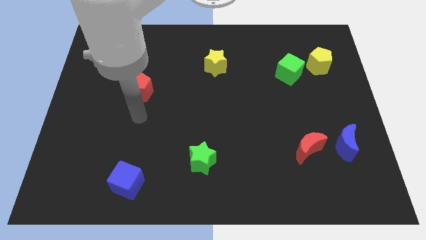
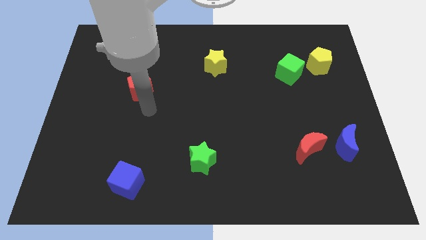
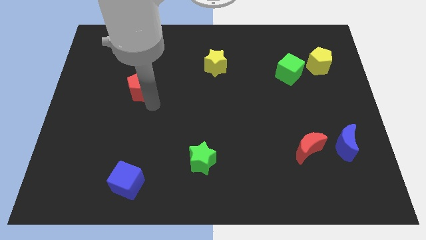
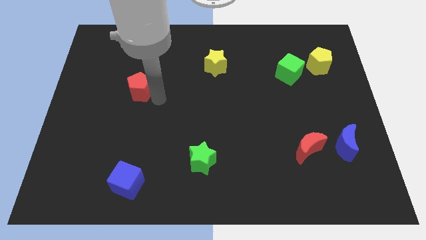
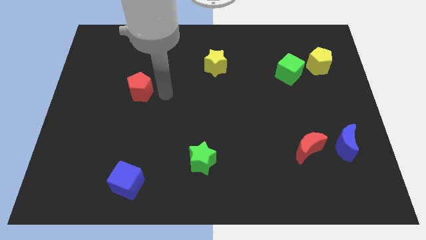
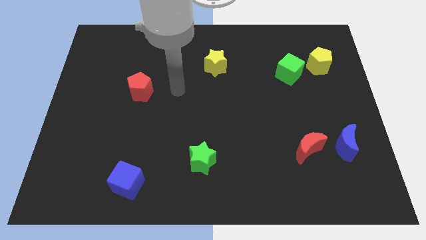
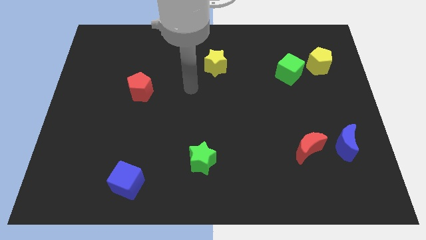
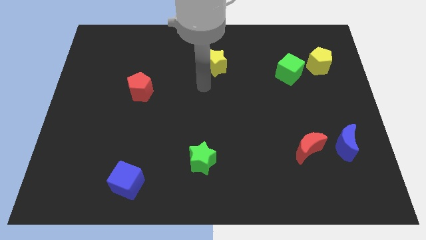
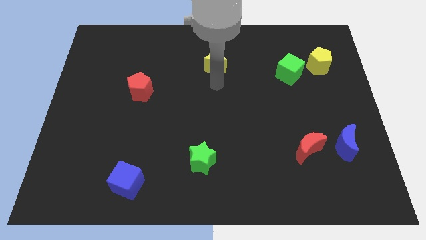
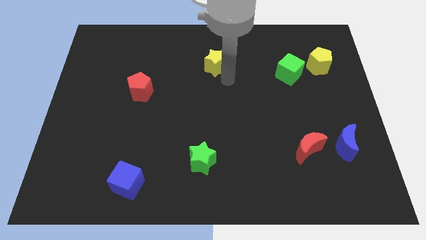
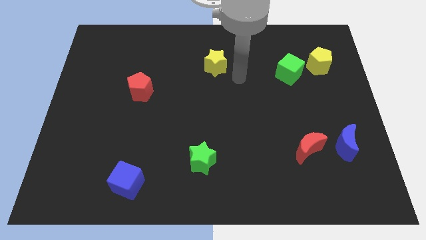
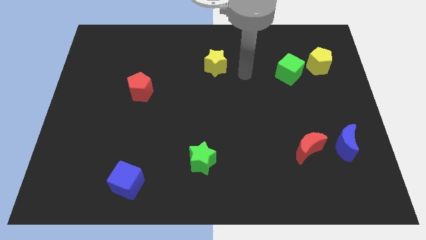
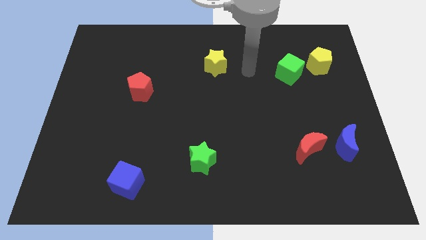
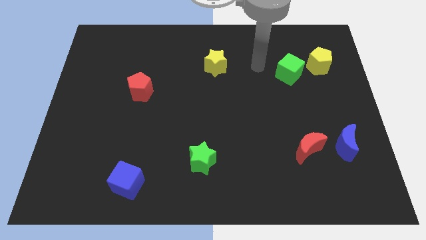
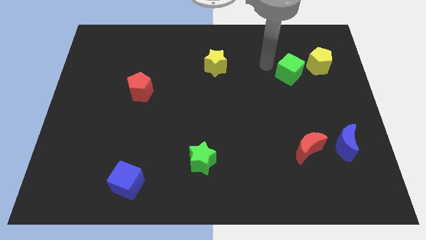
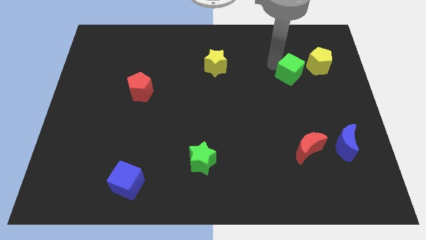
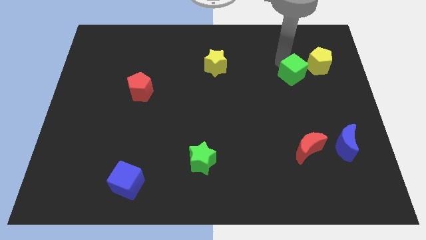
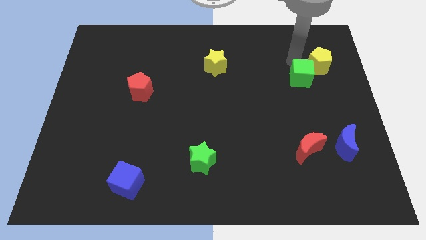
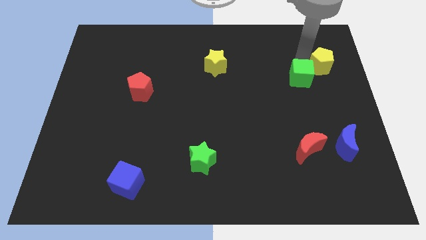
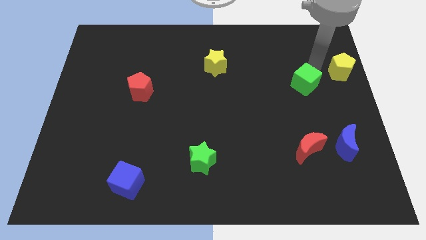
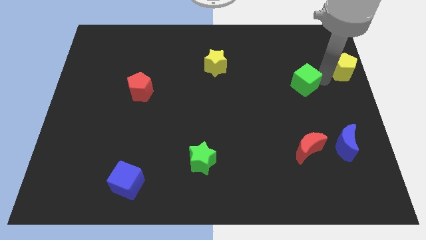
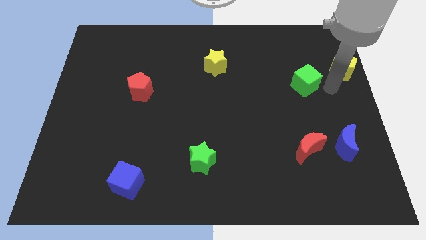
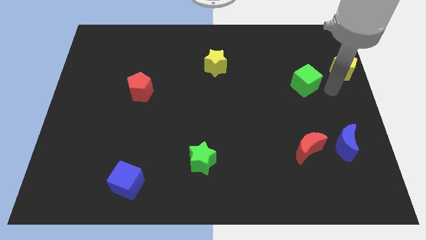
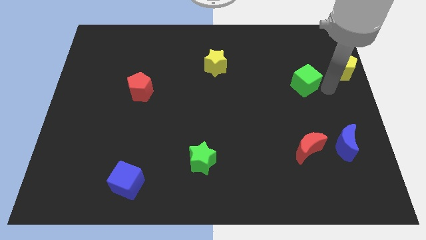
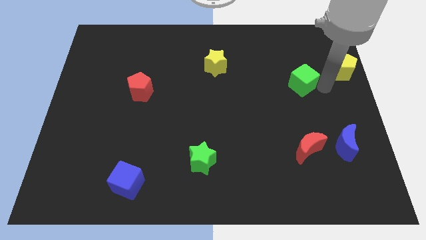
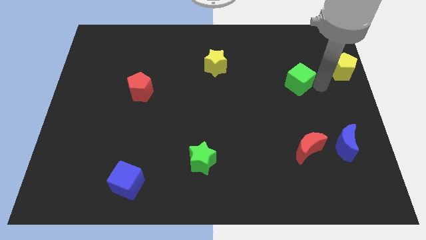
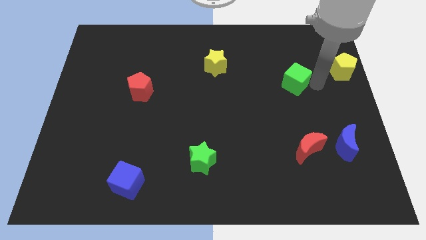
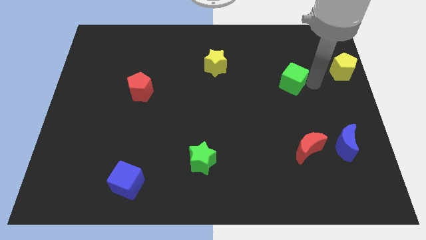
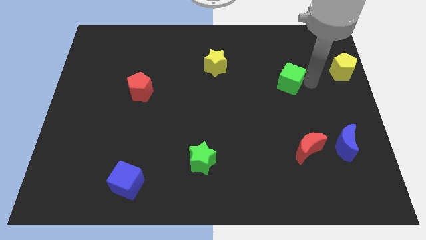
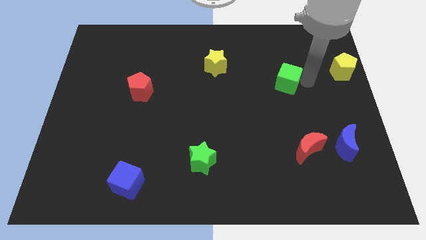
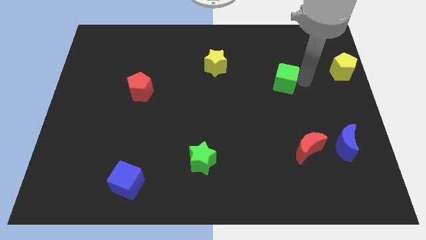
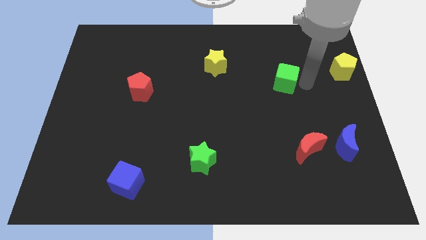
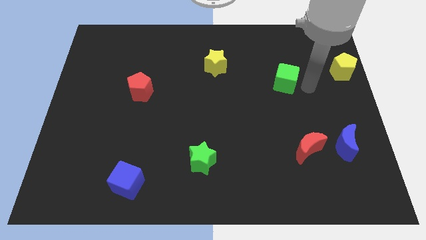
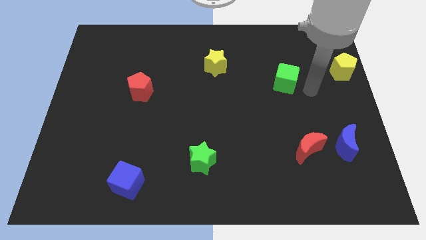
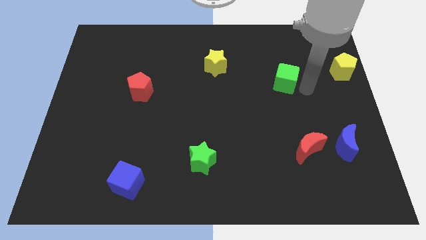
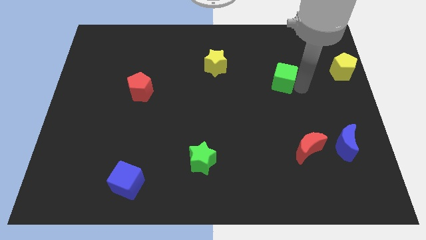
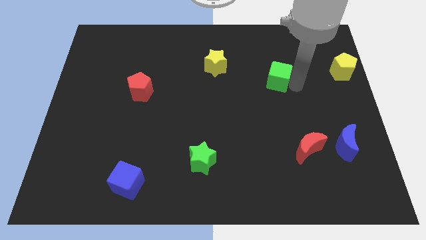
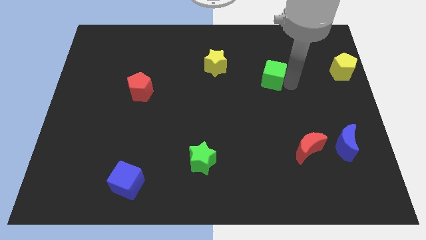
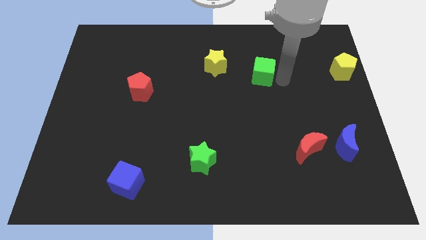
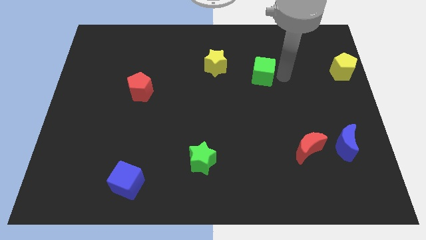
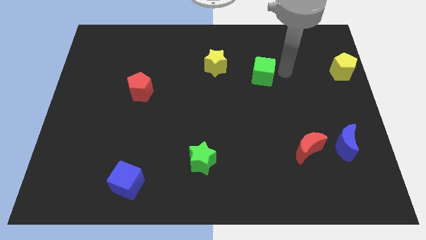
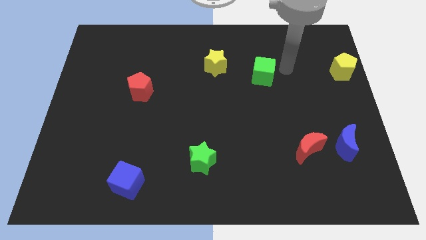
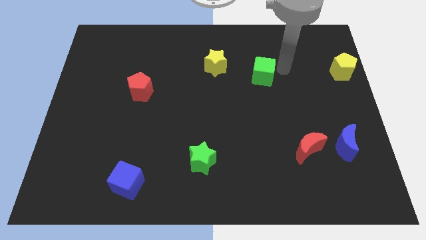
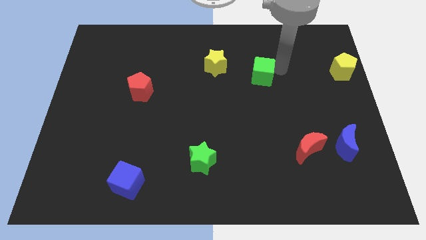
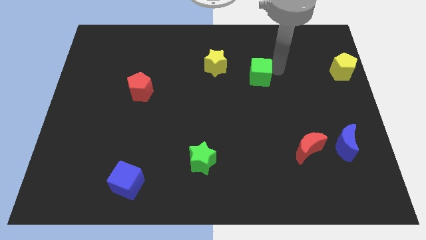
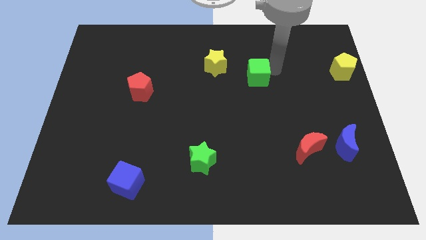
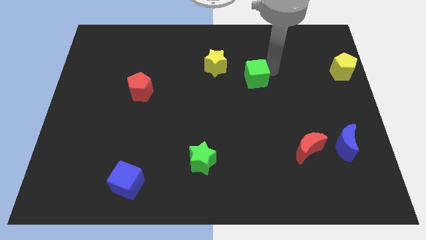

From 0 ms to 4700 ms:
put the green cube to the bottom right of the yellow star

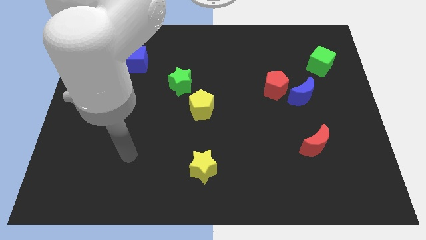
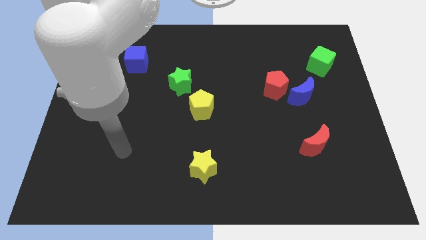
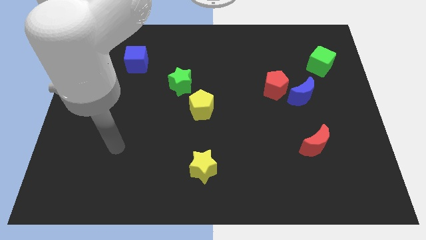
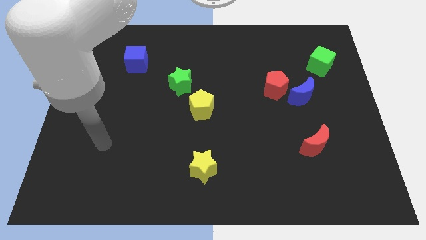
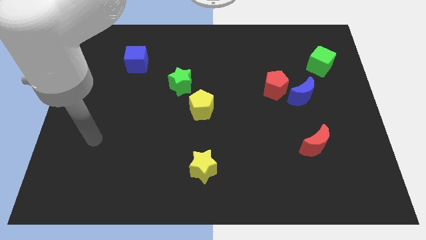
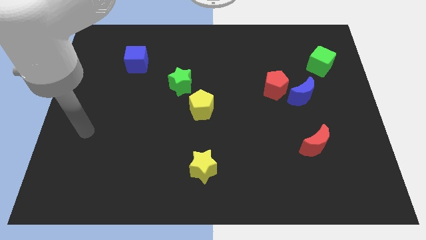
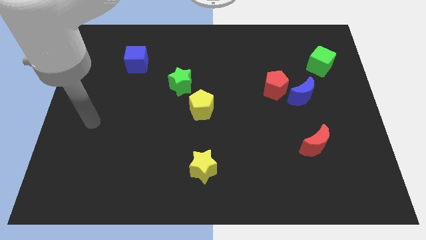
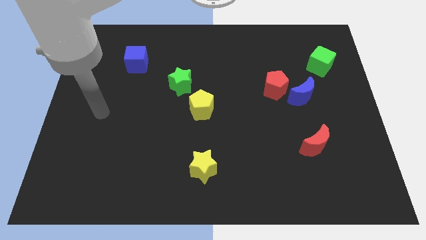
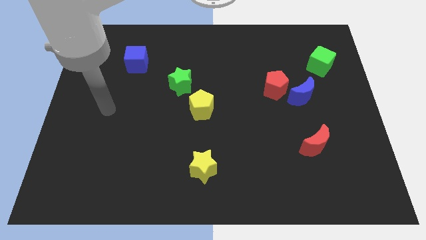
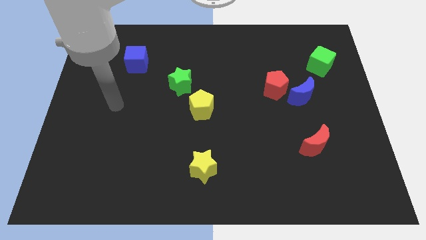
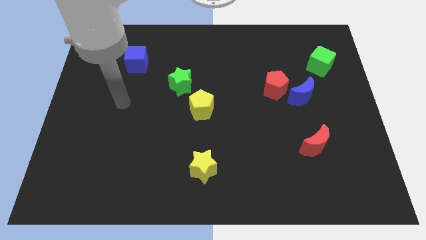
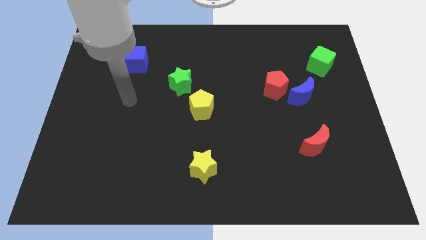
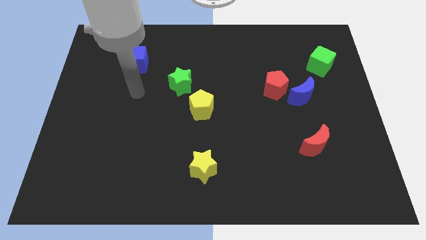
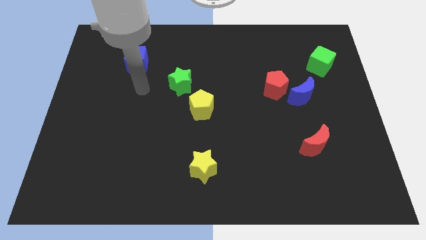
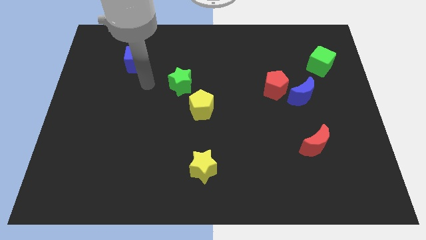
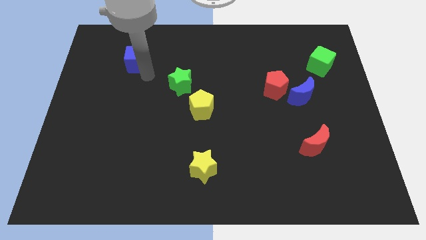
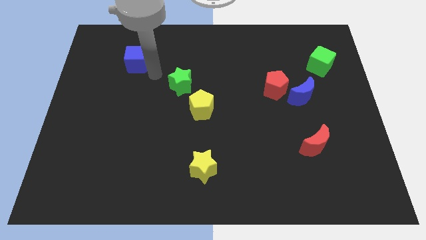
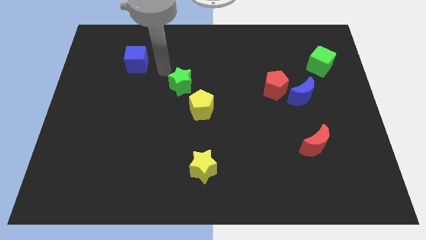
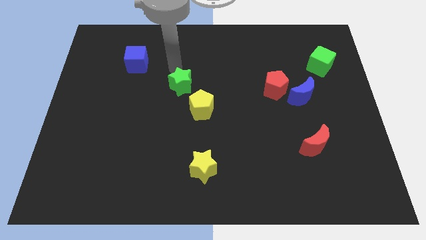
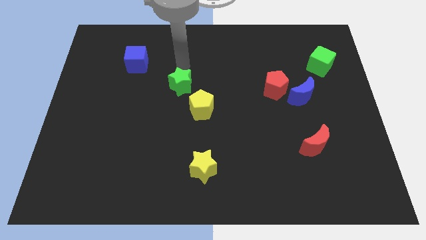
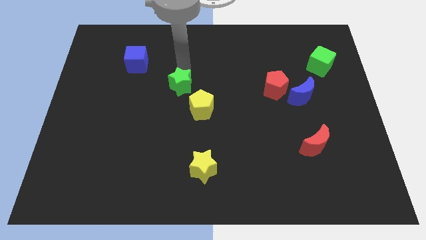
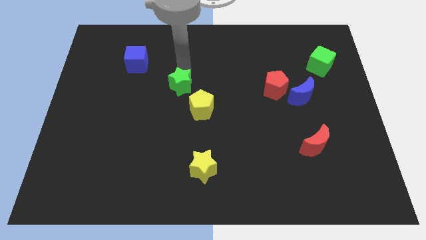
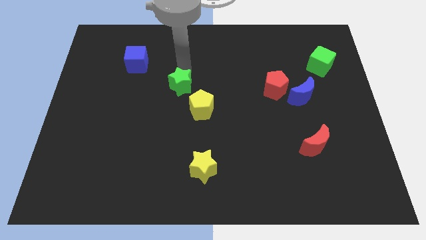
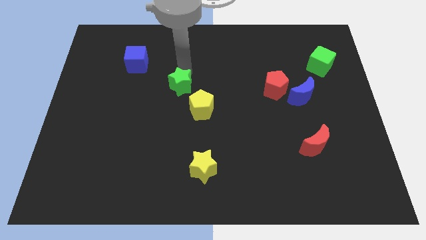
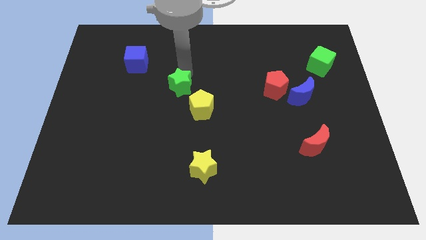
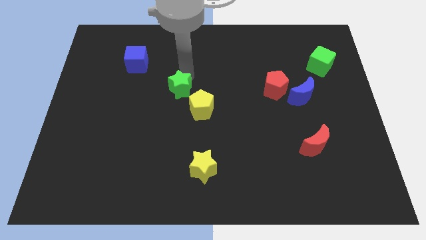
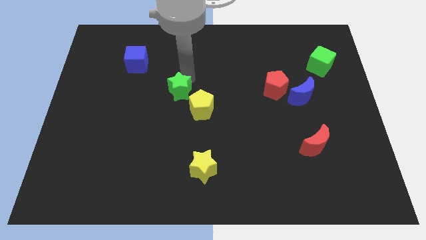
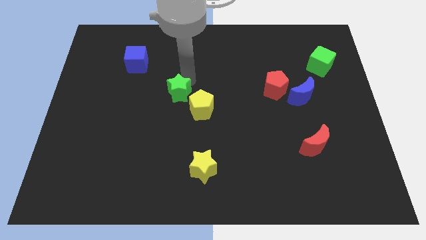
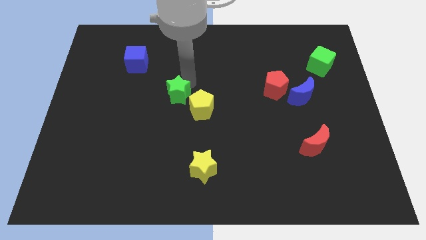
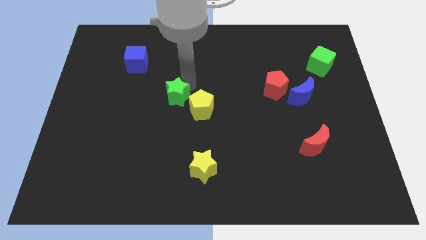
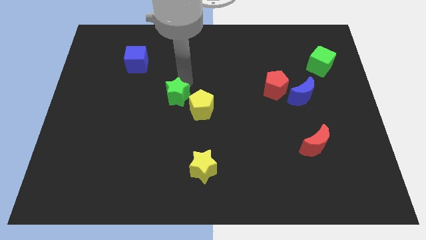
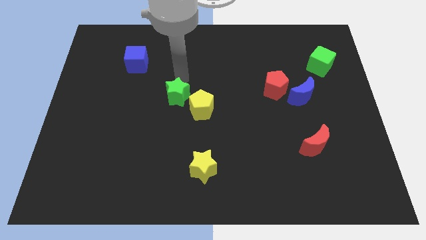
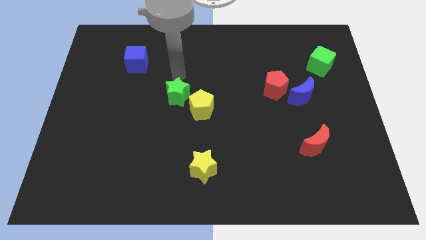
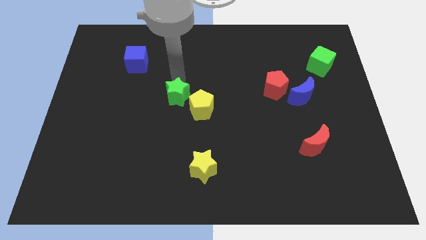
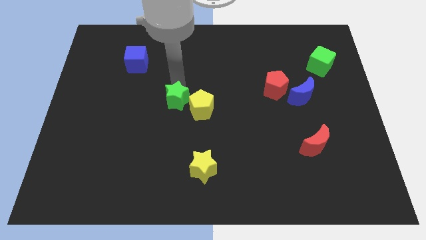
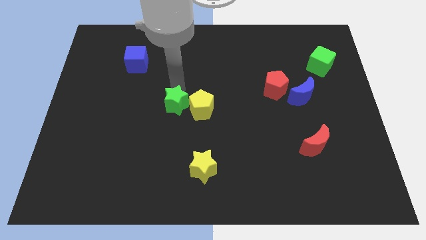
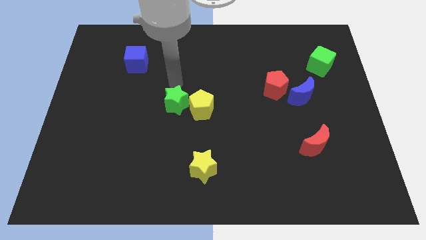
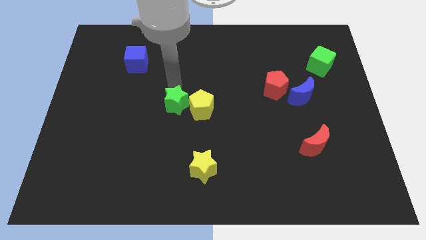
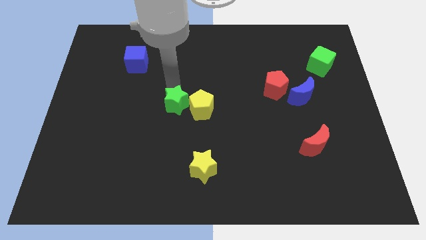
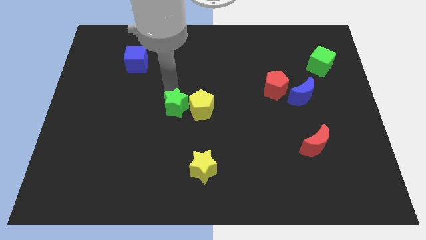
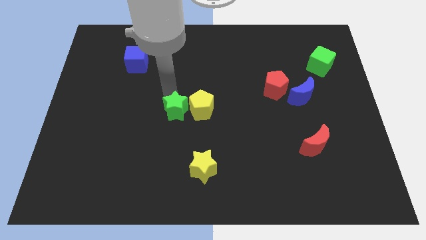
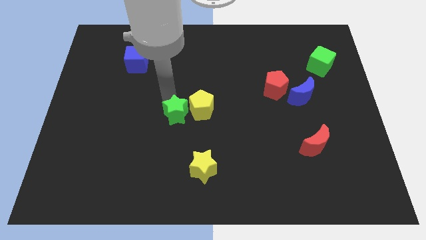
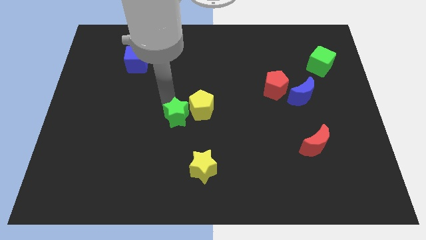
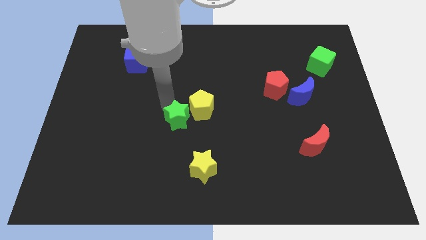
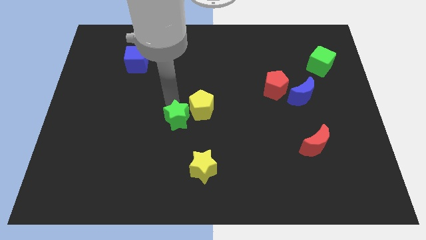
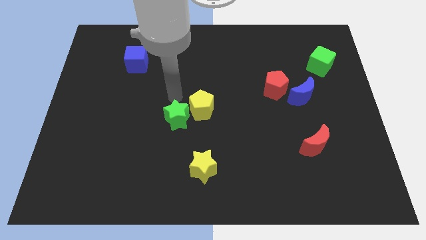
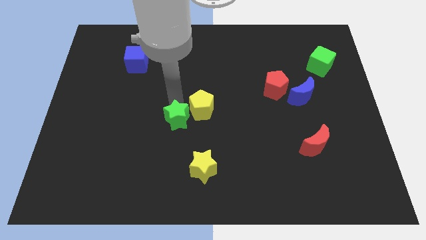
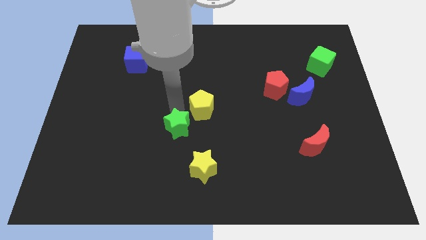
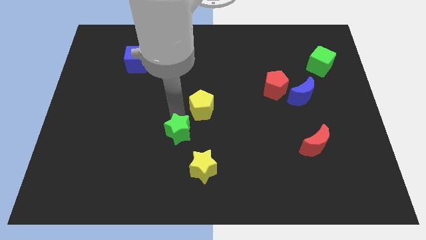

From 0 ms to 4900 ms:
put the green star diagonally up and to the left of the yellow star
